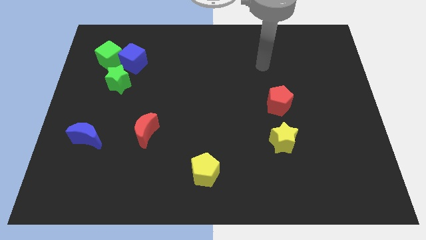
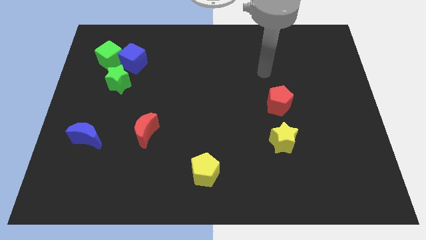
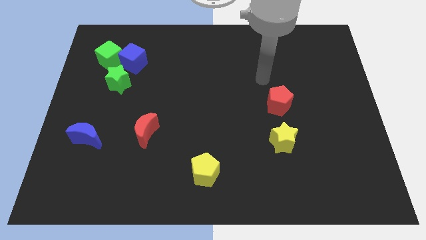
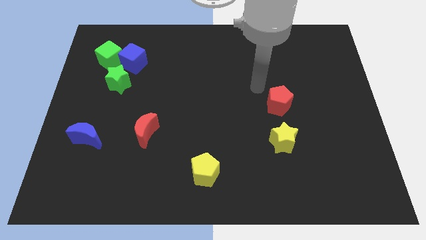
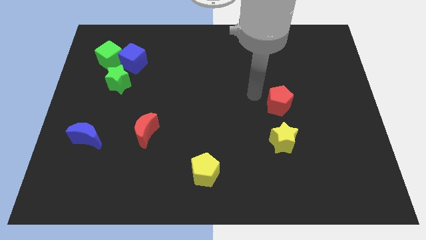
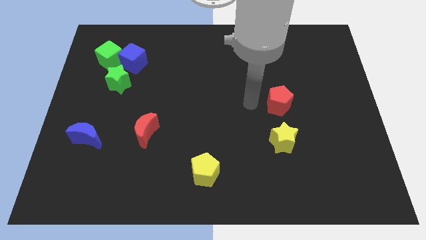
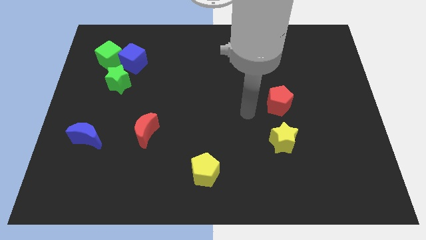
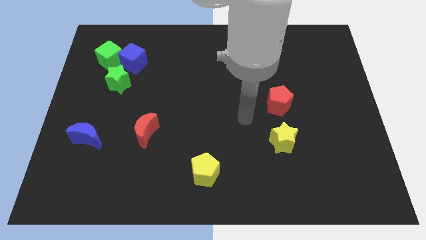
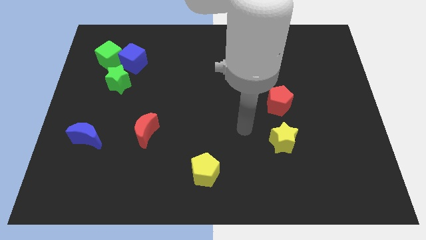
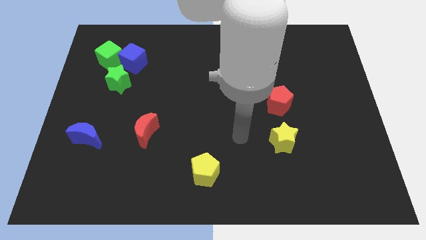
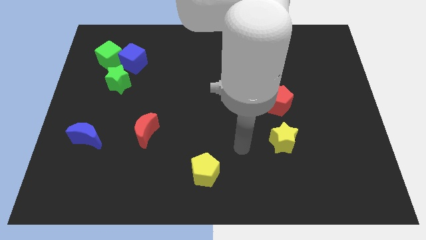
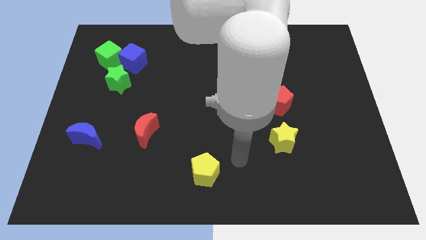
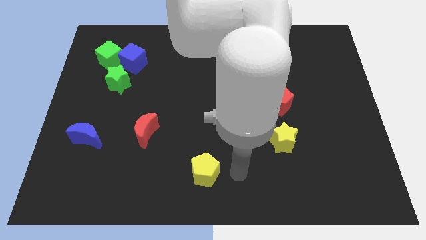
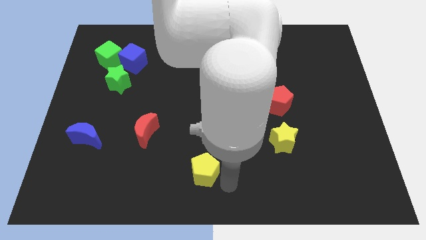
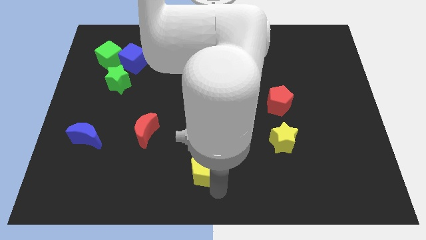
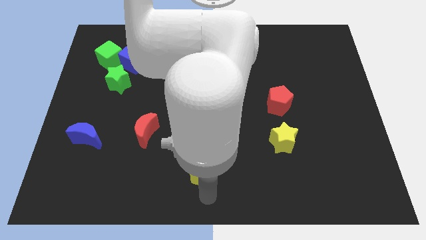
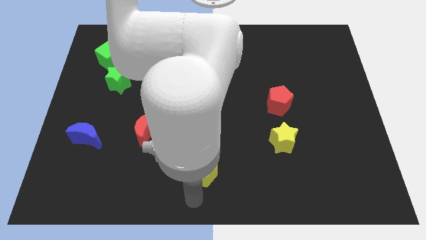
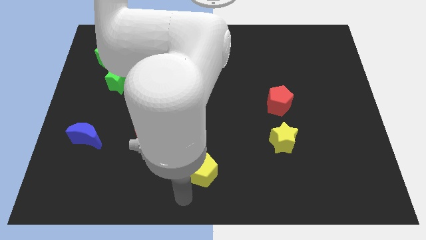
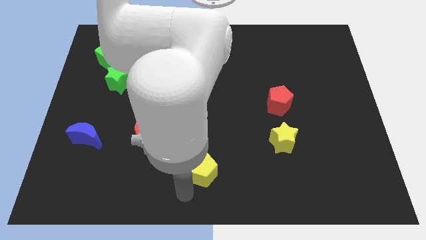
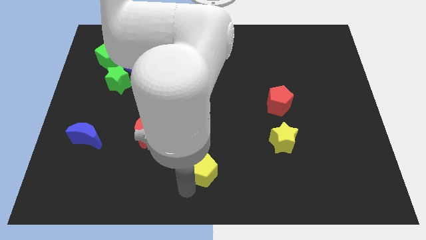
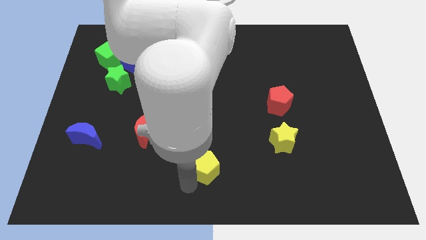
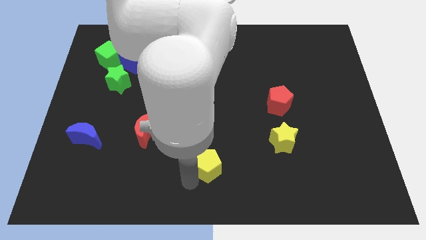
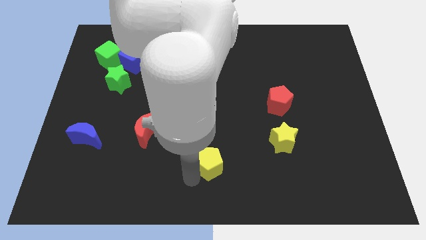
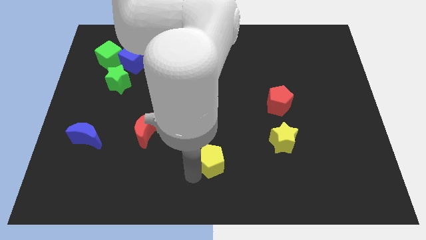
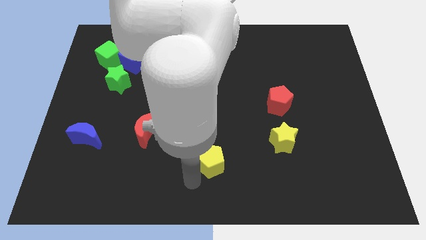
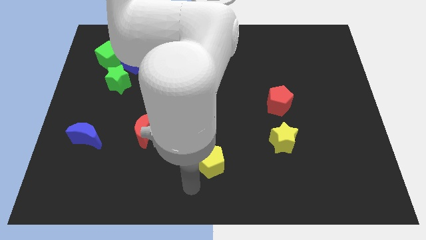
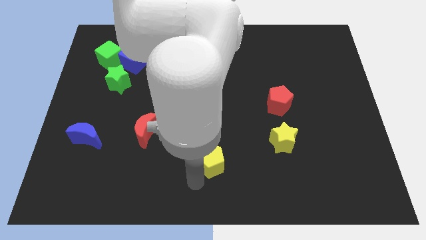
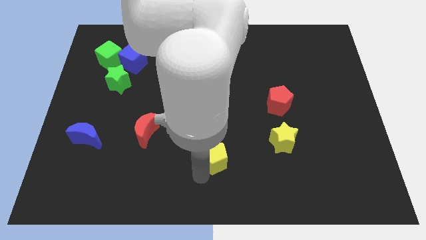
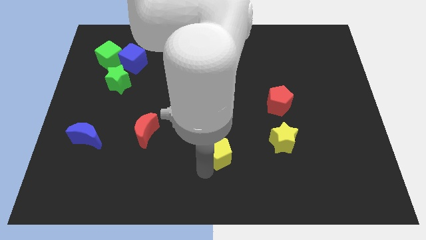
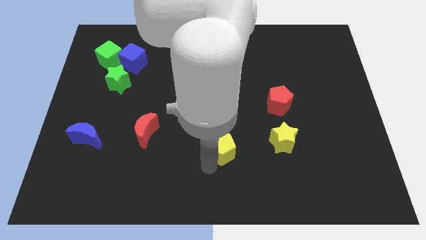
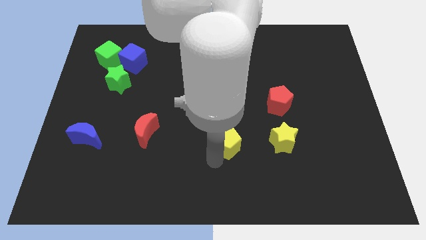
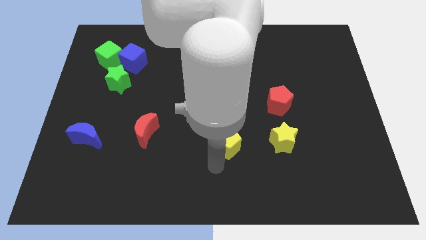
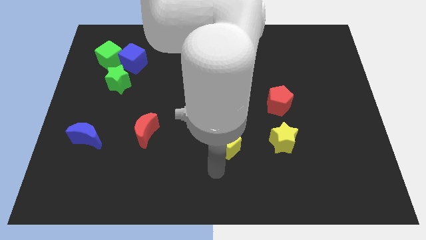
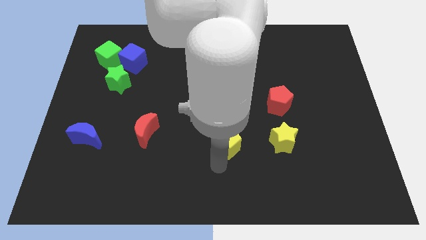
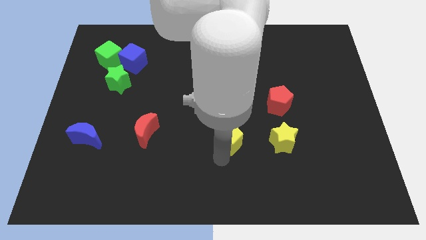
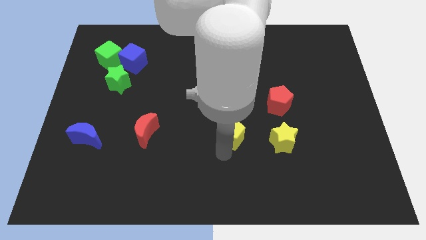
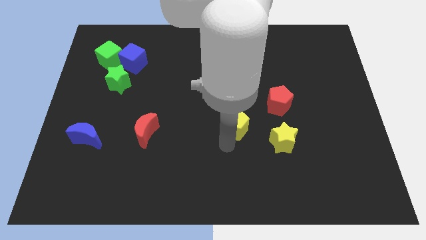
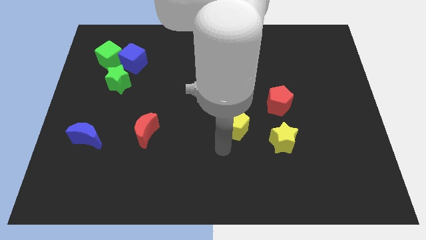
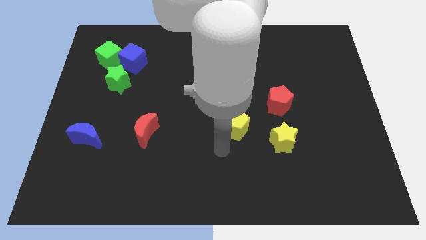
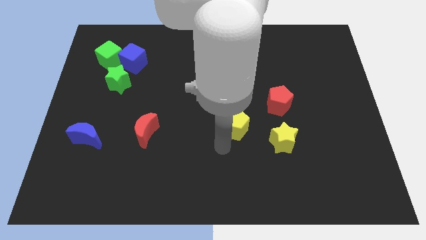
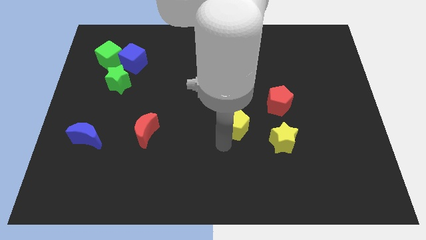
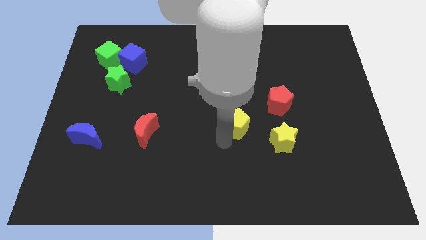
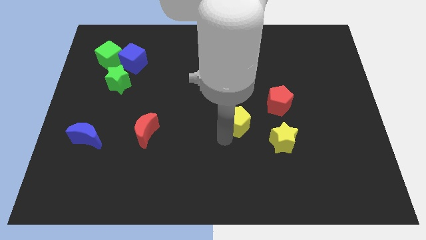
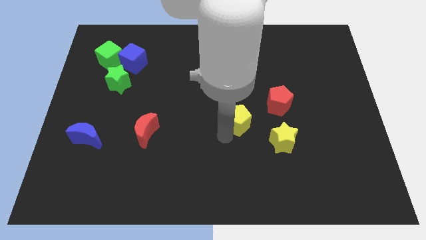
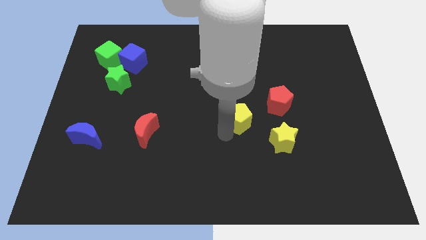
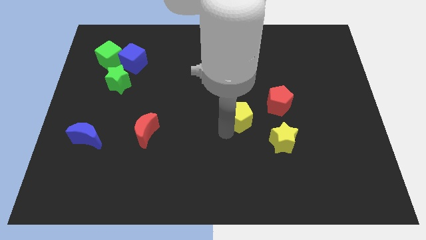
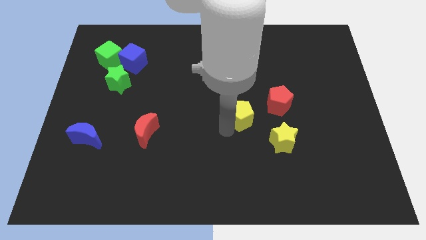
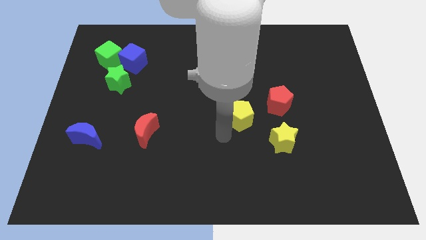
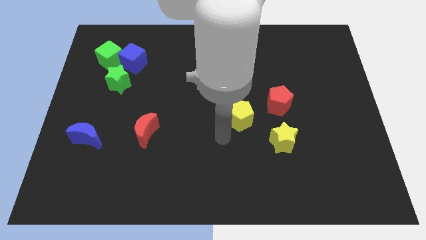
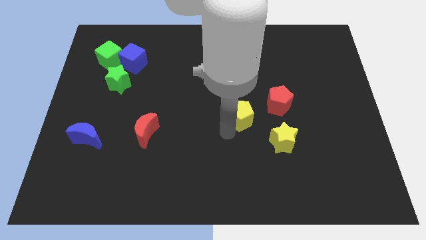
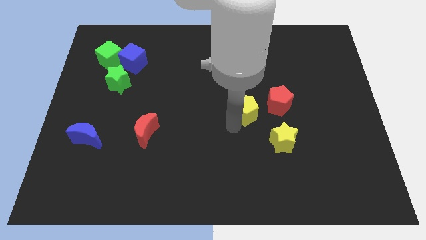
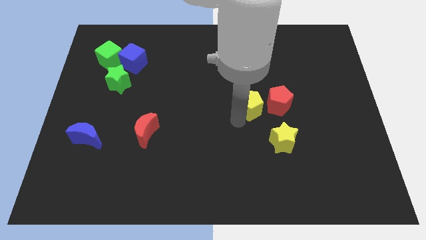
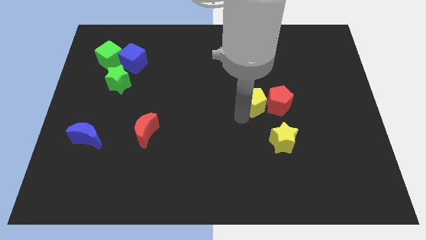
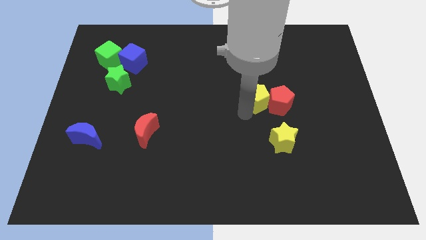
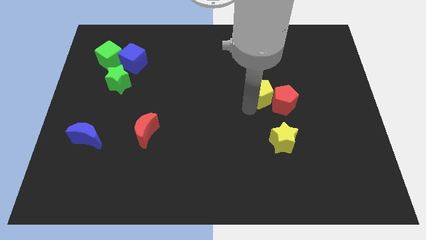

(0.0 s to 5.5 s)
slide the yellow pentagon above the yellow star

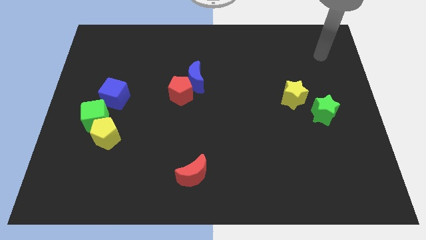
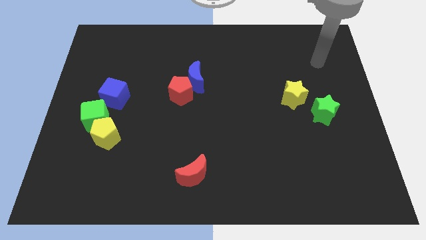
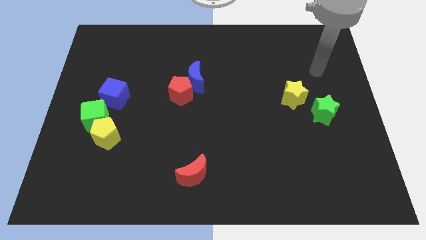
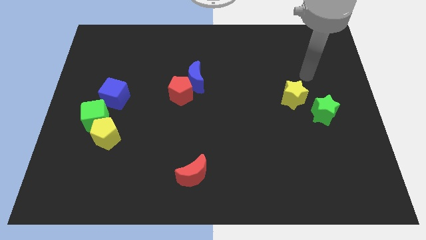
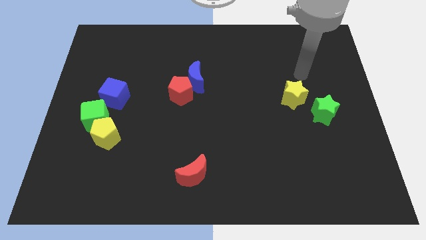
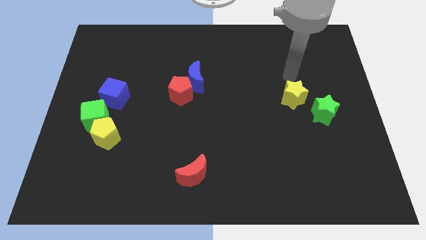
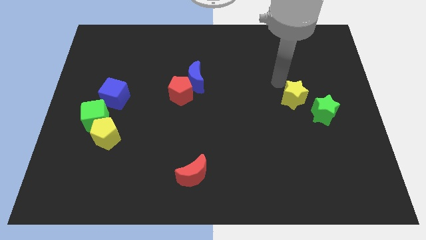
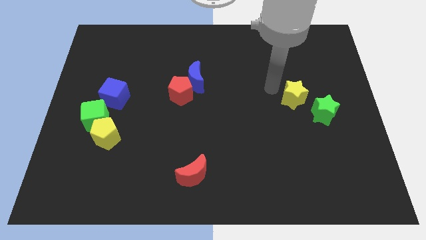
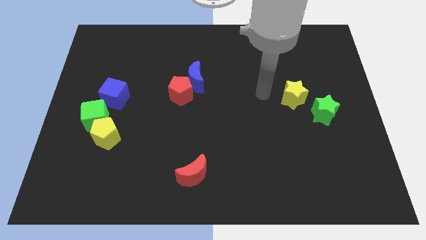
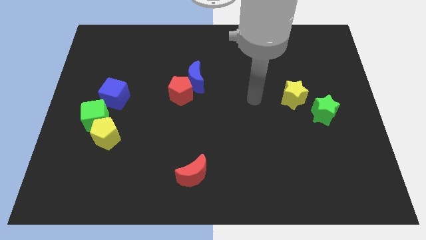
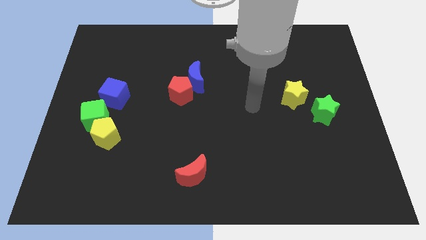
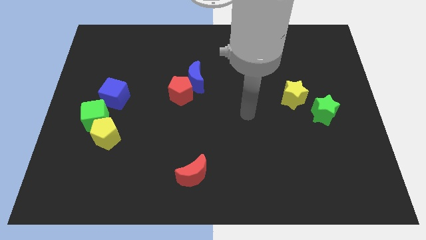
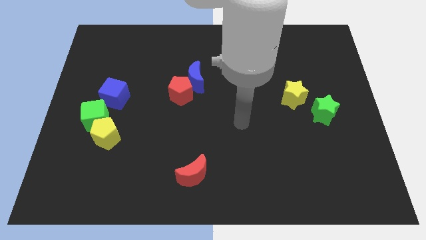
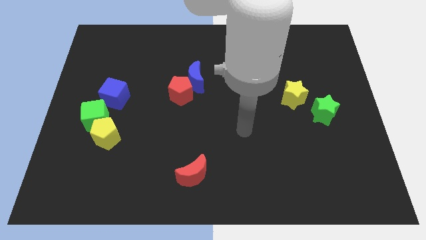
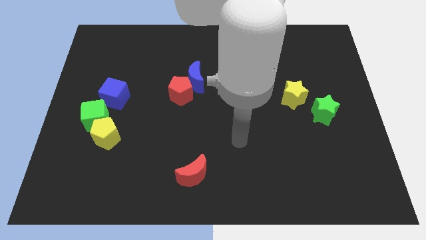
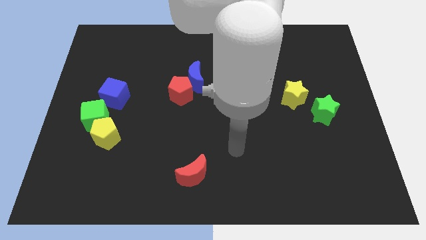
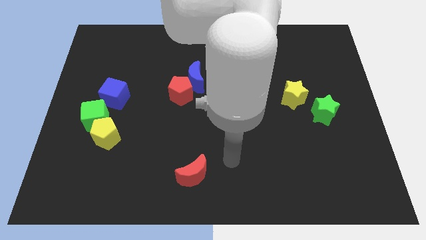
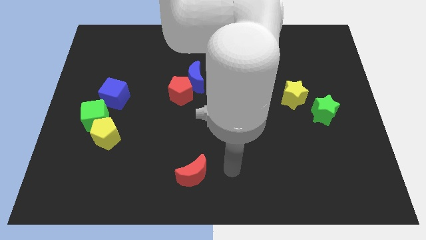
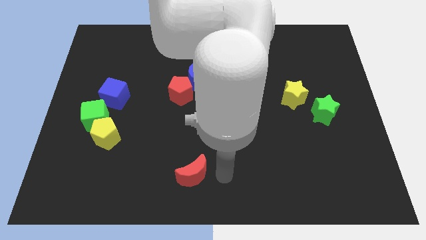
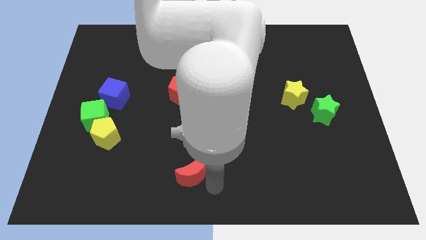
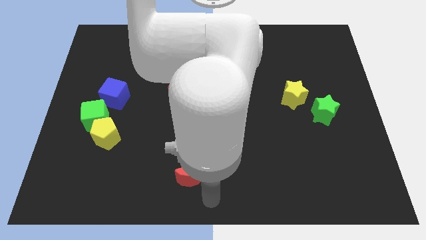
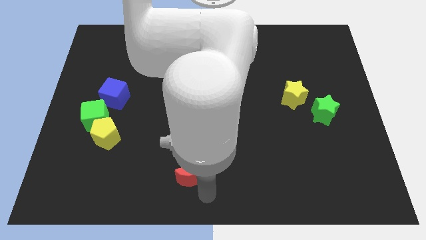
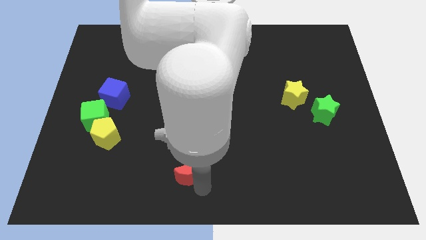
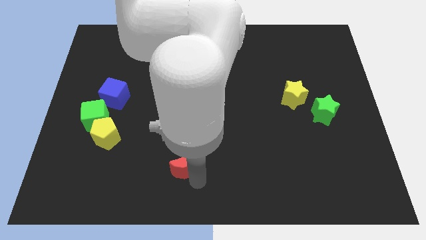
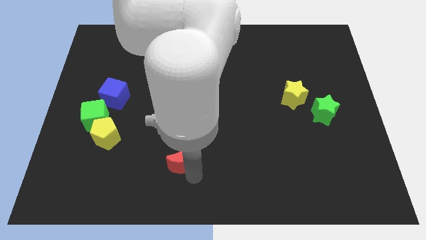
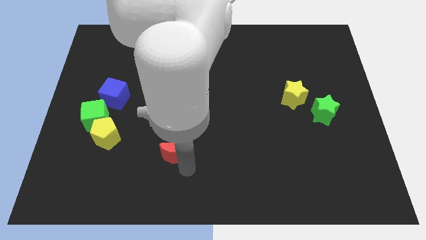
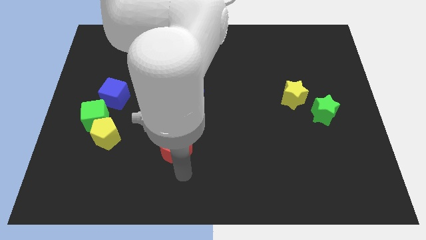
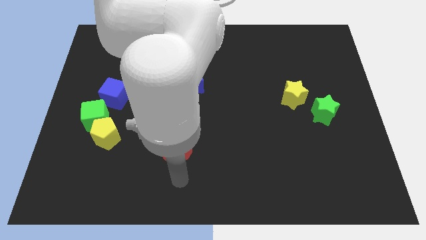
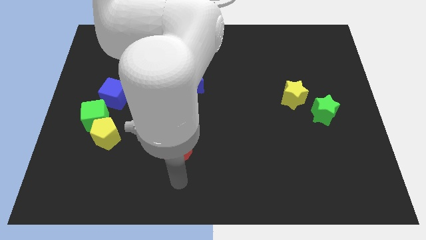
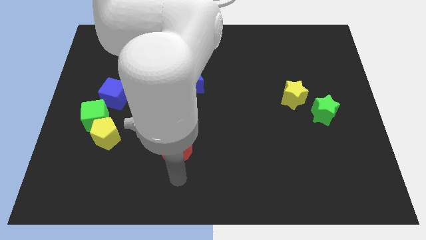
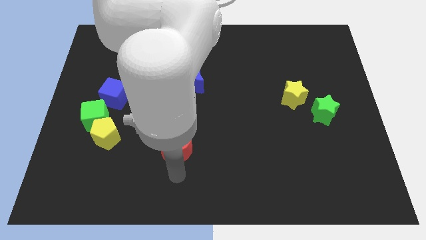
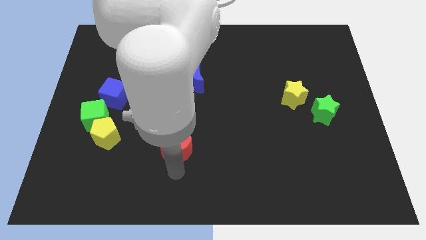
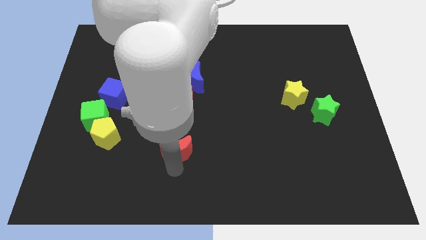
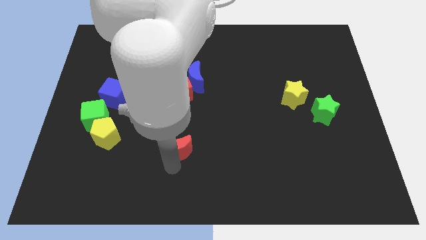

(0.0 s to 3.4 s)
move the red moon to the bottom of the red pentagon
